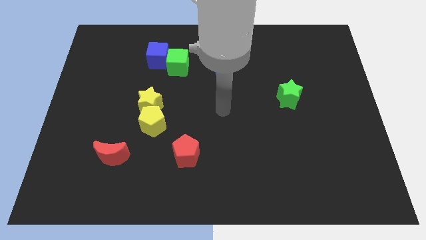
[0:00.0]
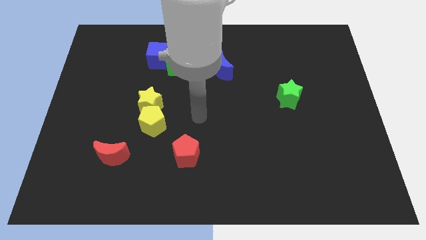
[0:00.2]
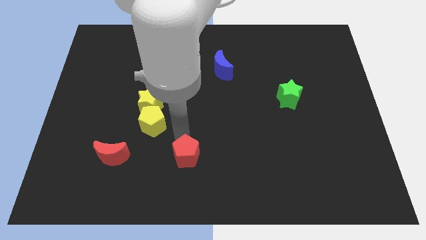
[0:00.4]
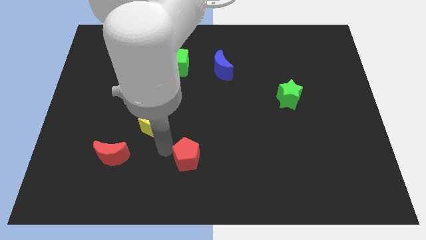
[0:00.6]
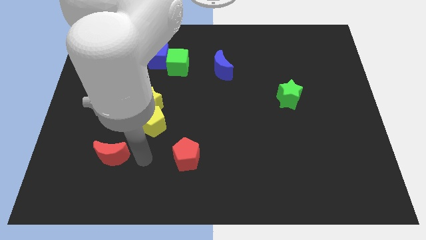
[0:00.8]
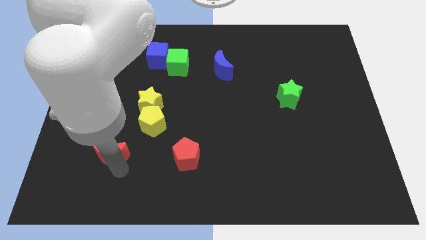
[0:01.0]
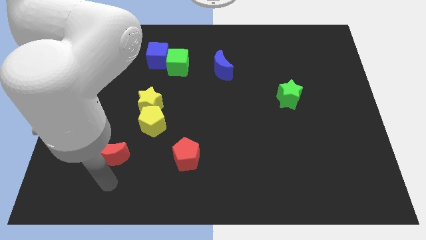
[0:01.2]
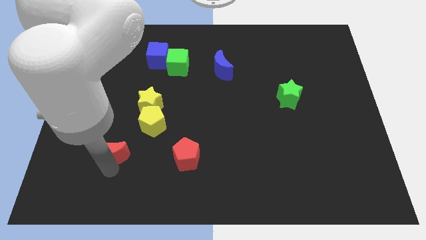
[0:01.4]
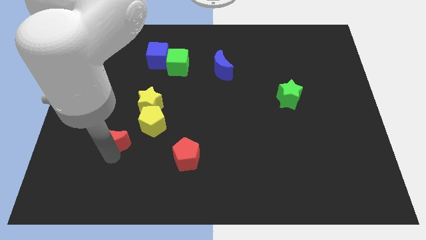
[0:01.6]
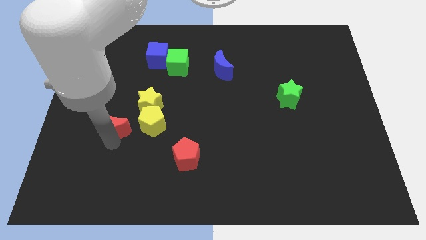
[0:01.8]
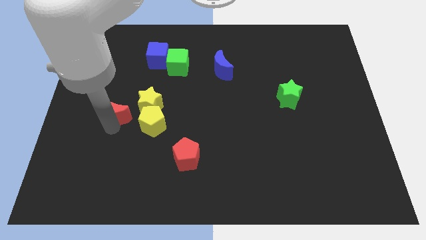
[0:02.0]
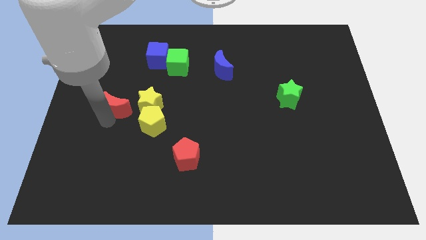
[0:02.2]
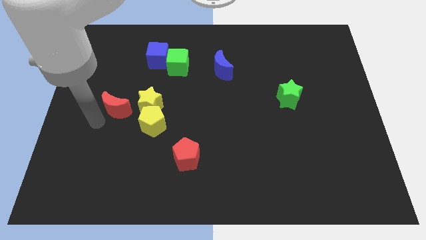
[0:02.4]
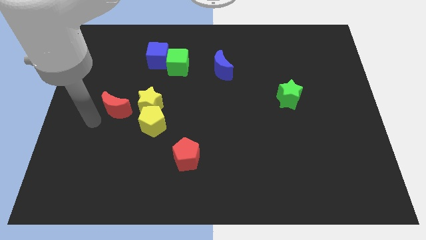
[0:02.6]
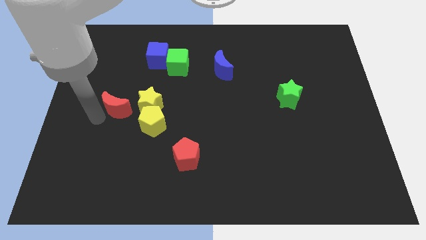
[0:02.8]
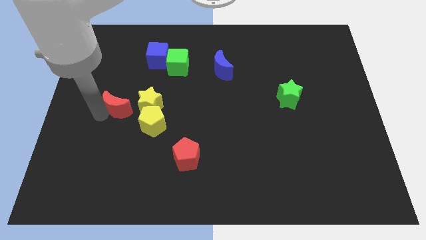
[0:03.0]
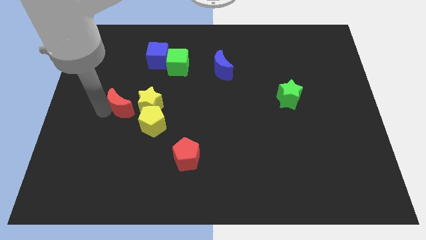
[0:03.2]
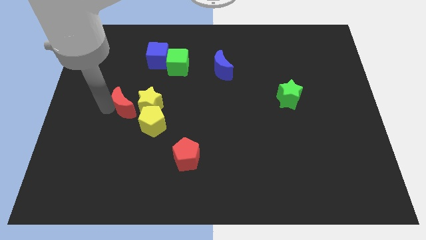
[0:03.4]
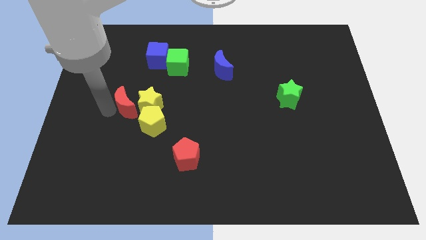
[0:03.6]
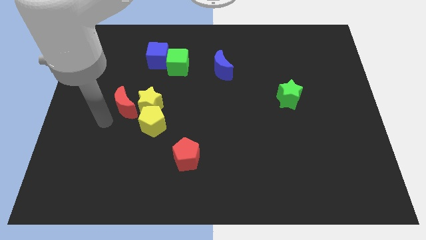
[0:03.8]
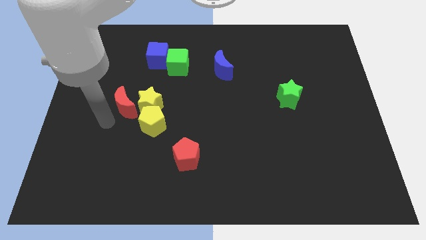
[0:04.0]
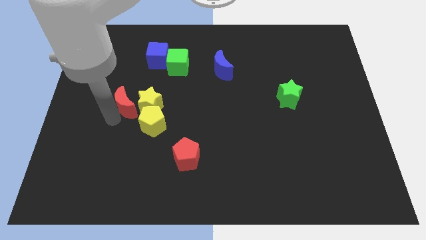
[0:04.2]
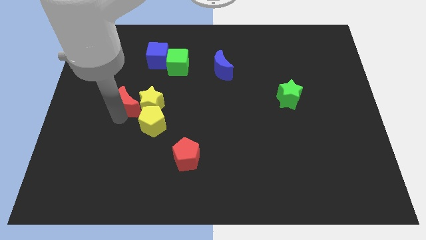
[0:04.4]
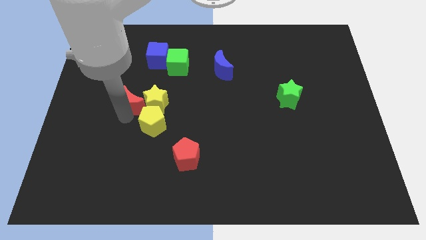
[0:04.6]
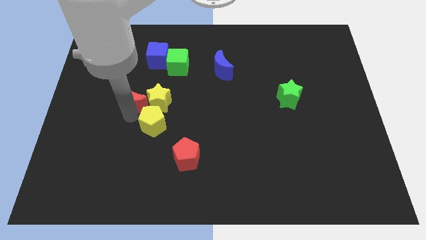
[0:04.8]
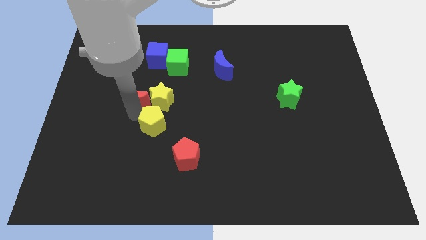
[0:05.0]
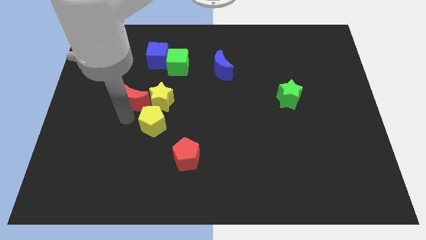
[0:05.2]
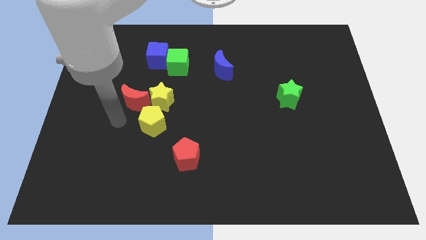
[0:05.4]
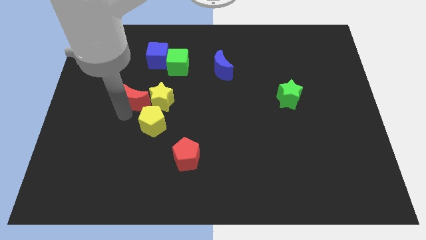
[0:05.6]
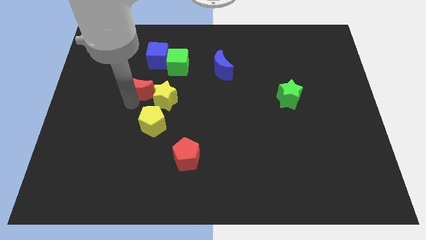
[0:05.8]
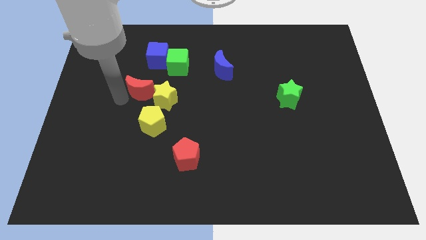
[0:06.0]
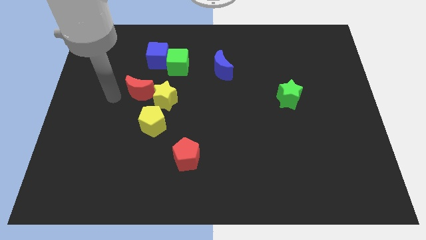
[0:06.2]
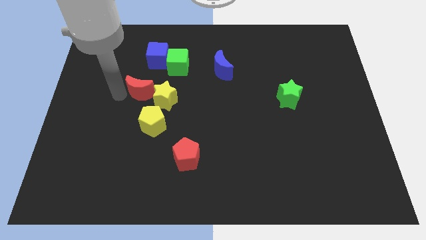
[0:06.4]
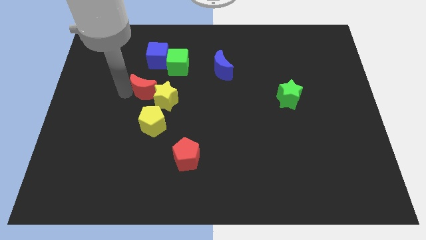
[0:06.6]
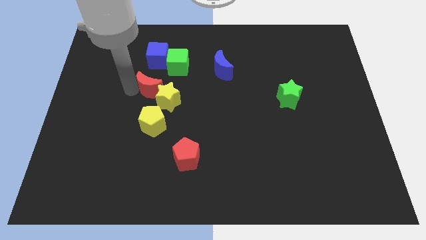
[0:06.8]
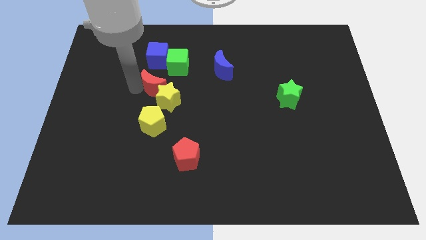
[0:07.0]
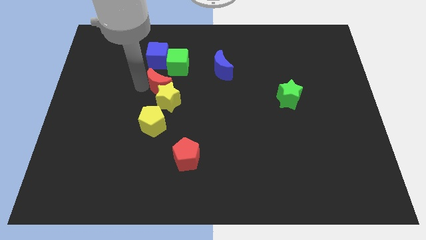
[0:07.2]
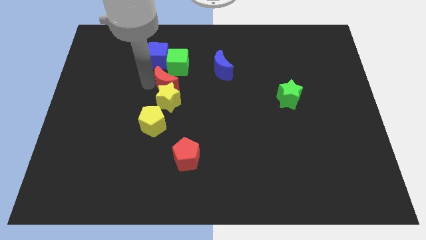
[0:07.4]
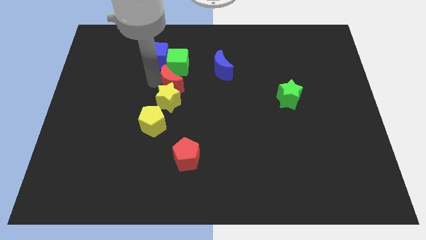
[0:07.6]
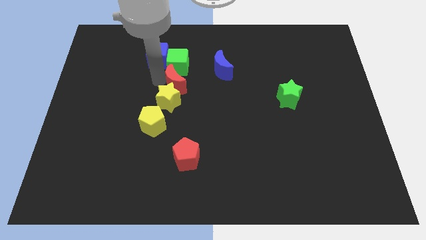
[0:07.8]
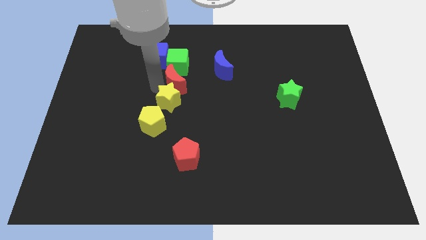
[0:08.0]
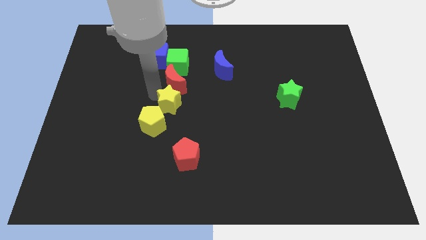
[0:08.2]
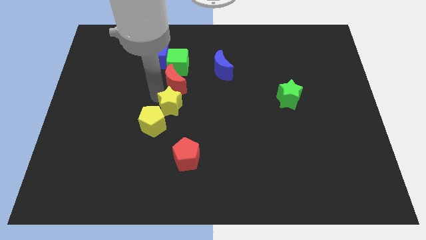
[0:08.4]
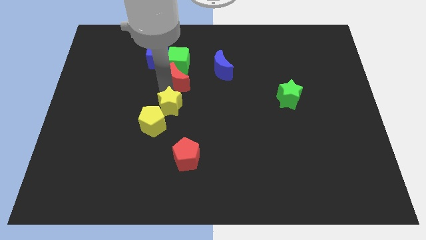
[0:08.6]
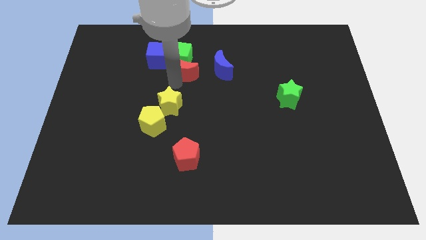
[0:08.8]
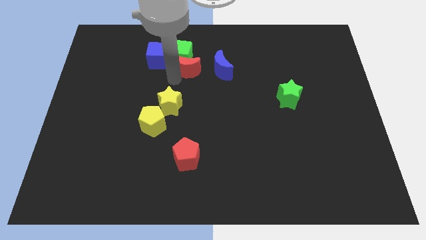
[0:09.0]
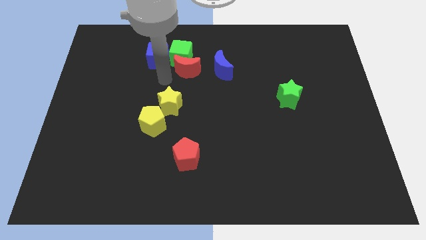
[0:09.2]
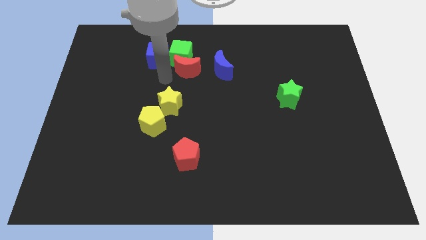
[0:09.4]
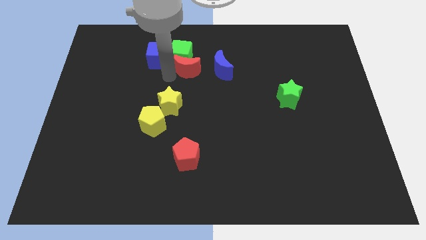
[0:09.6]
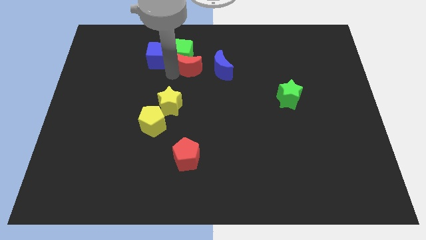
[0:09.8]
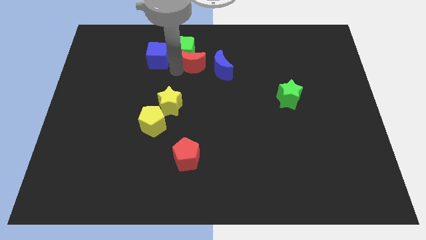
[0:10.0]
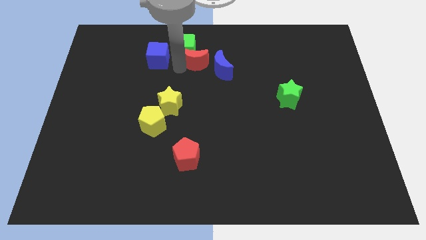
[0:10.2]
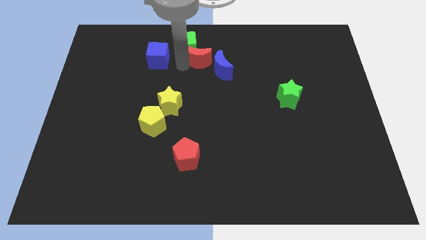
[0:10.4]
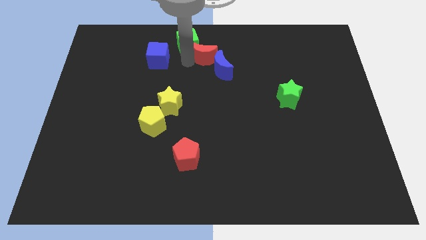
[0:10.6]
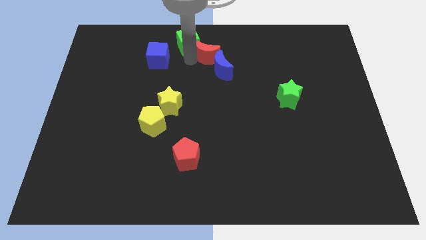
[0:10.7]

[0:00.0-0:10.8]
push the red moon to the towards your base
